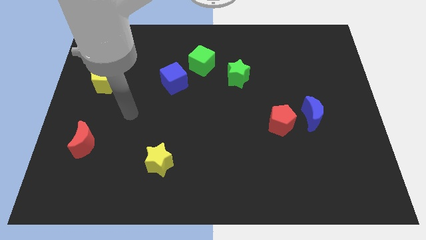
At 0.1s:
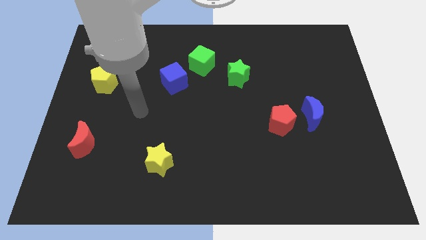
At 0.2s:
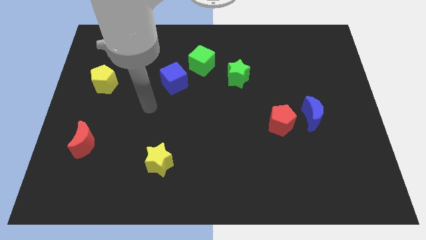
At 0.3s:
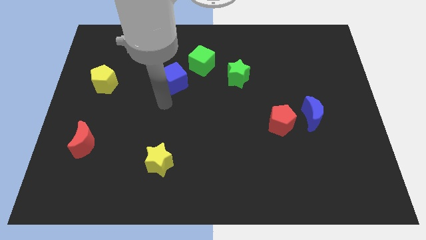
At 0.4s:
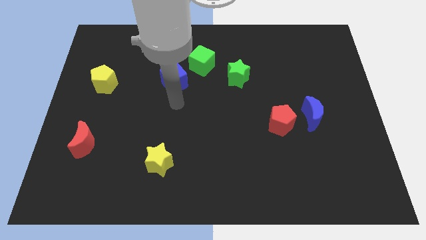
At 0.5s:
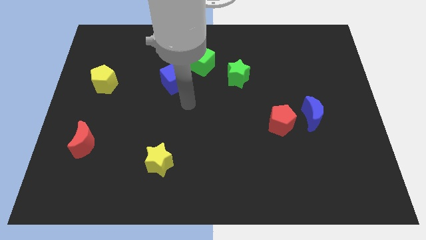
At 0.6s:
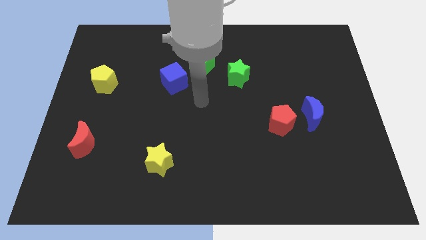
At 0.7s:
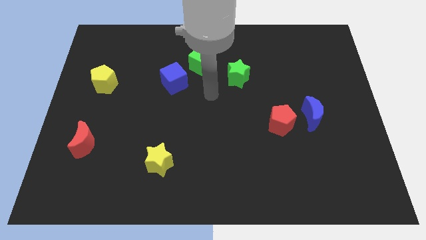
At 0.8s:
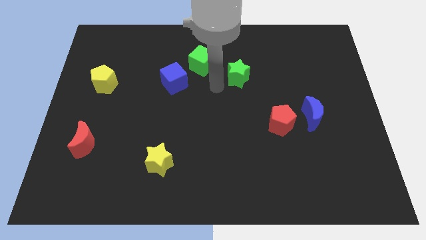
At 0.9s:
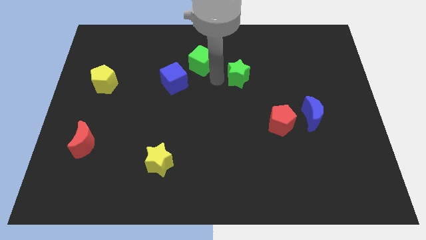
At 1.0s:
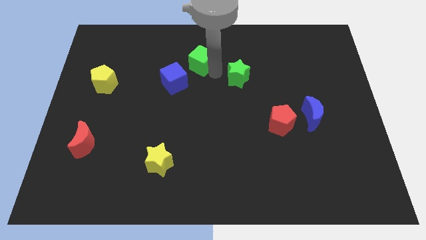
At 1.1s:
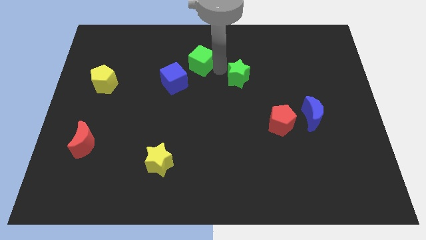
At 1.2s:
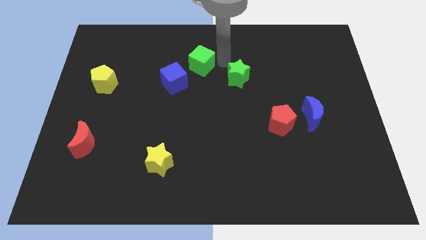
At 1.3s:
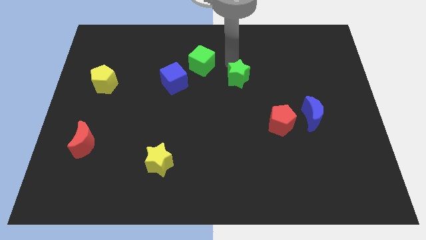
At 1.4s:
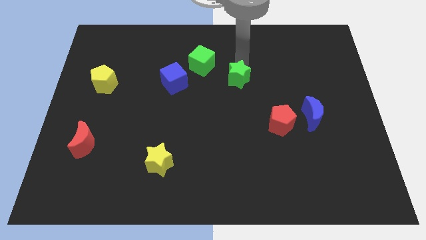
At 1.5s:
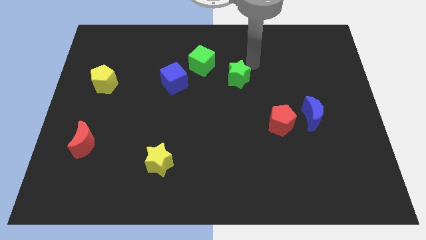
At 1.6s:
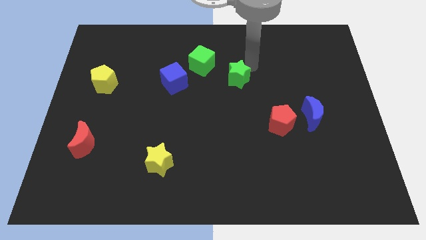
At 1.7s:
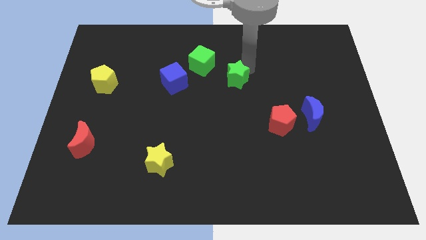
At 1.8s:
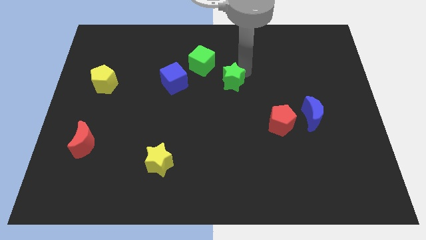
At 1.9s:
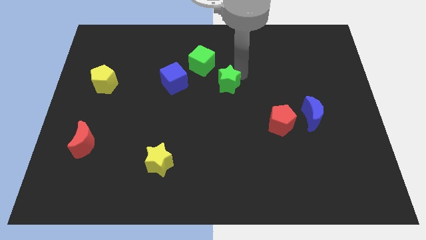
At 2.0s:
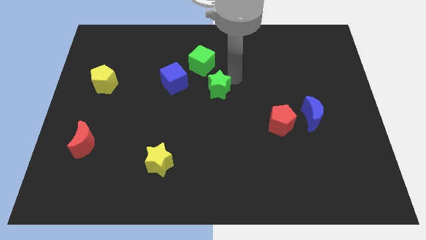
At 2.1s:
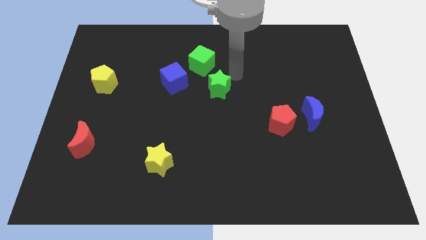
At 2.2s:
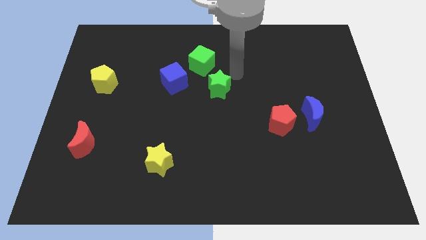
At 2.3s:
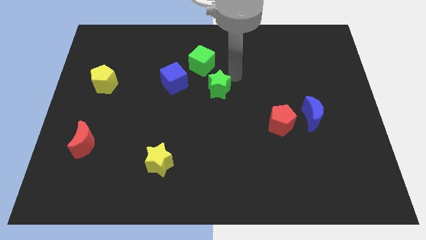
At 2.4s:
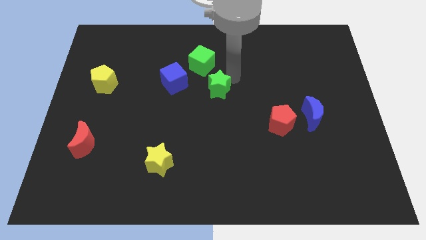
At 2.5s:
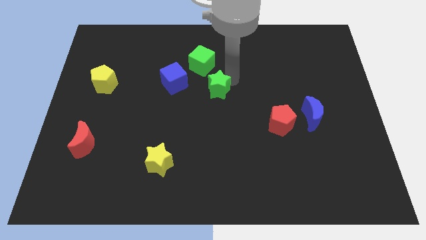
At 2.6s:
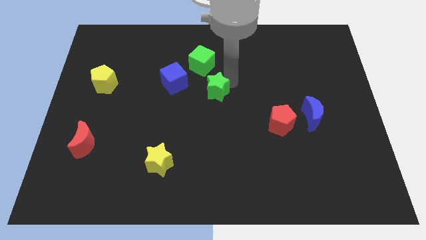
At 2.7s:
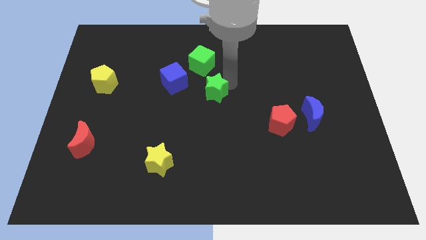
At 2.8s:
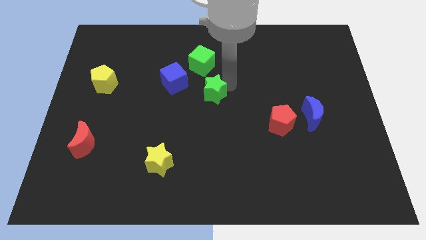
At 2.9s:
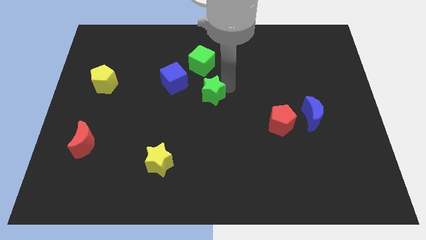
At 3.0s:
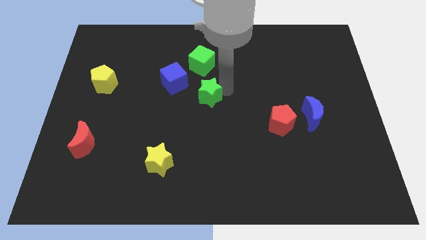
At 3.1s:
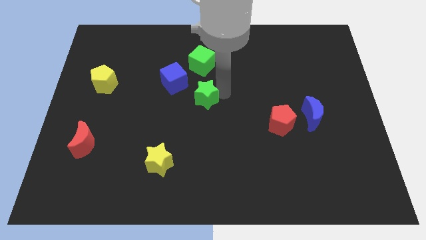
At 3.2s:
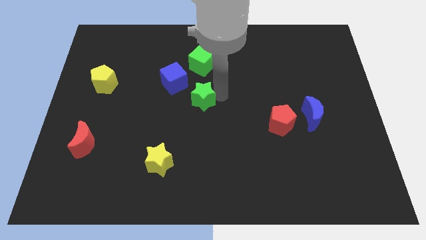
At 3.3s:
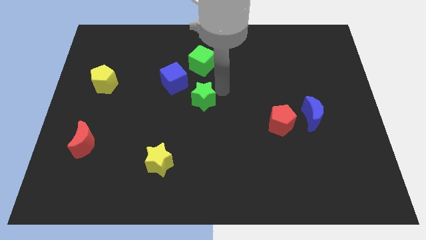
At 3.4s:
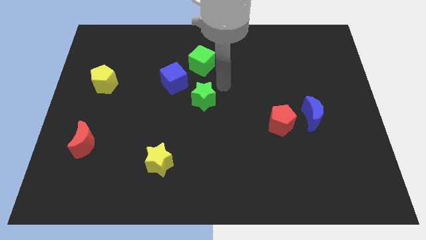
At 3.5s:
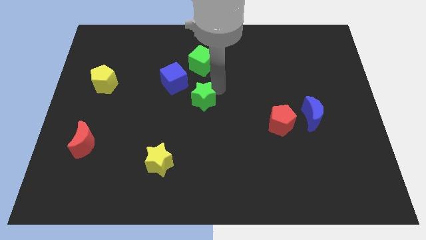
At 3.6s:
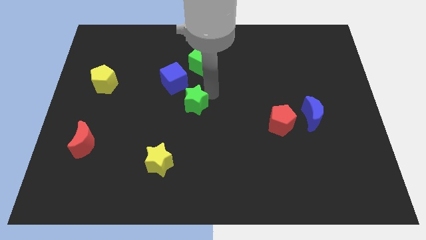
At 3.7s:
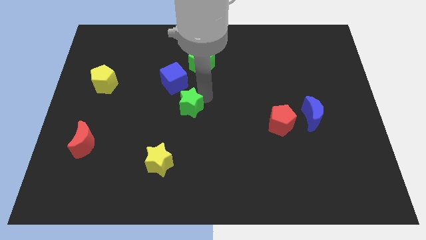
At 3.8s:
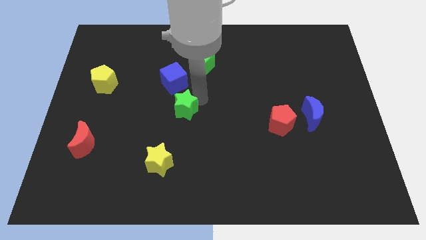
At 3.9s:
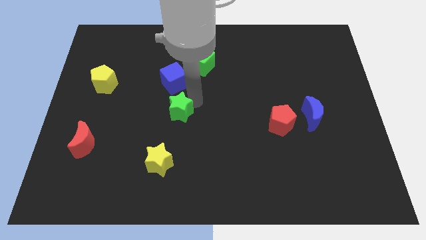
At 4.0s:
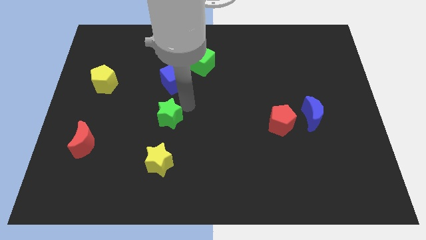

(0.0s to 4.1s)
push the green star down and then left

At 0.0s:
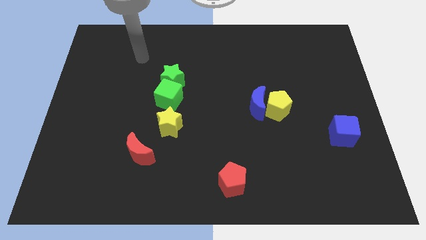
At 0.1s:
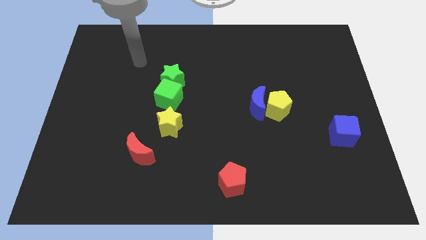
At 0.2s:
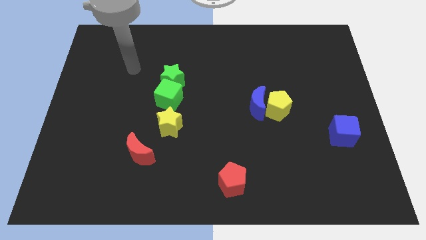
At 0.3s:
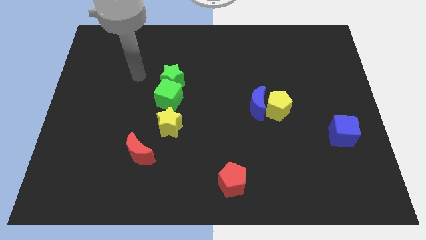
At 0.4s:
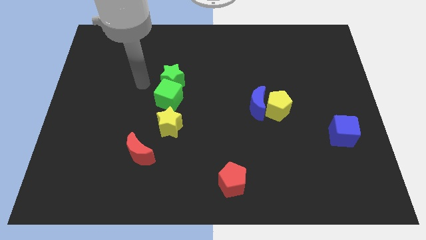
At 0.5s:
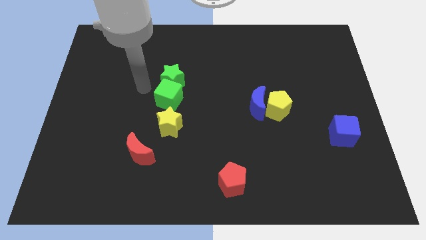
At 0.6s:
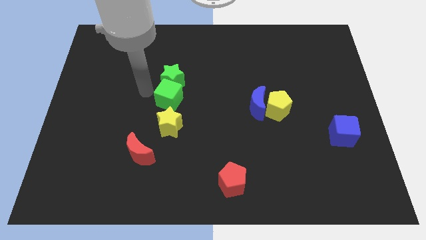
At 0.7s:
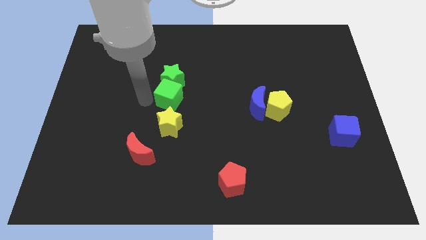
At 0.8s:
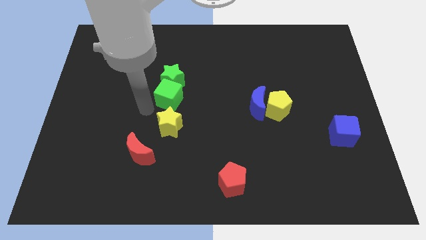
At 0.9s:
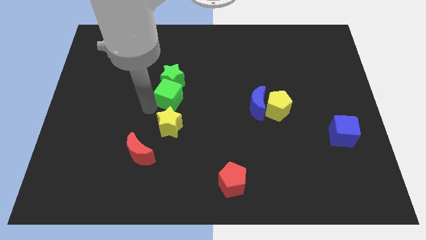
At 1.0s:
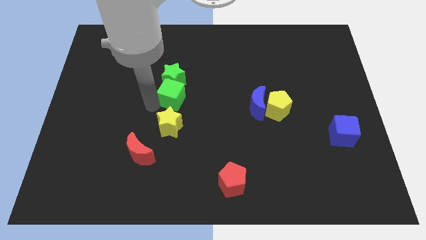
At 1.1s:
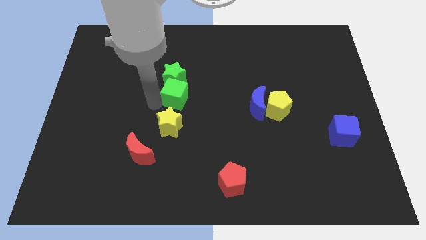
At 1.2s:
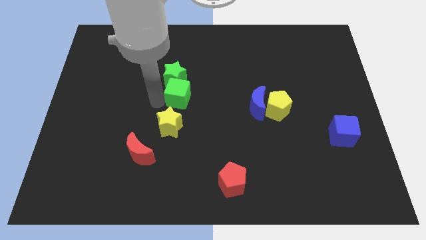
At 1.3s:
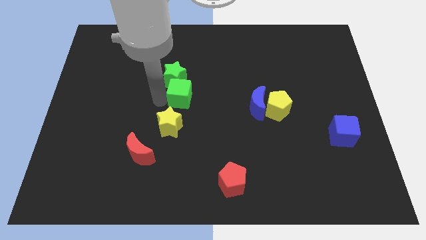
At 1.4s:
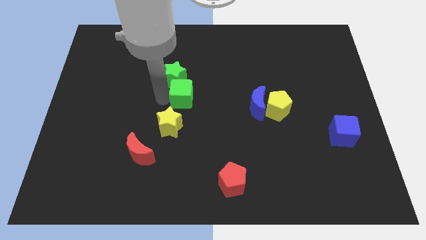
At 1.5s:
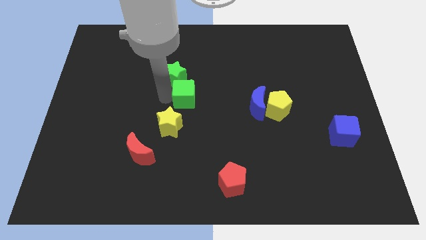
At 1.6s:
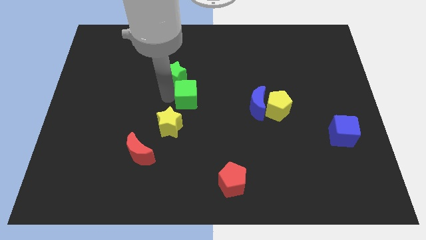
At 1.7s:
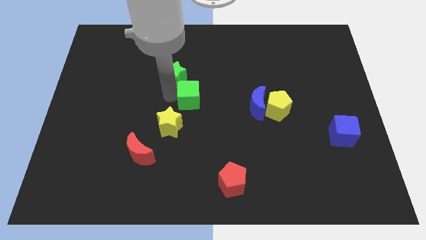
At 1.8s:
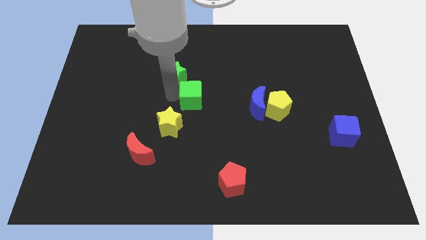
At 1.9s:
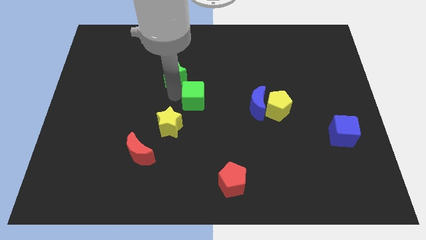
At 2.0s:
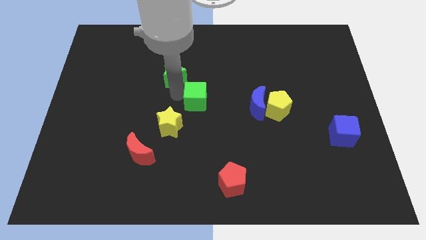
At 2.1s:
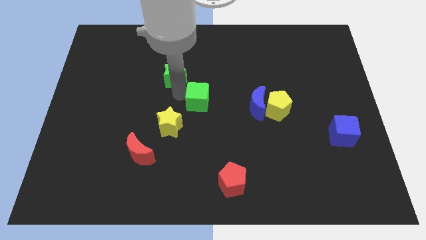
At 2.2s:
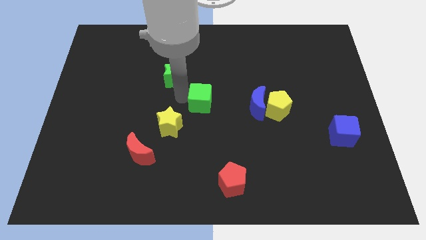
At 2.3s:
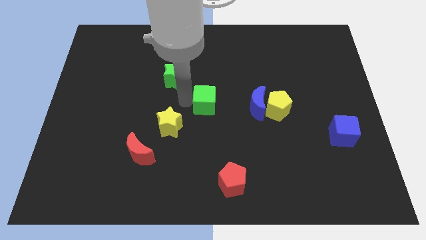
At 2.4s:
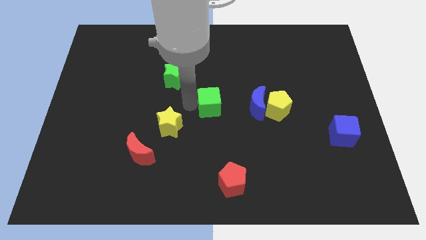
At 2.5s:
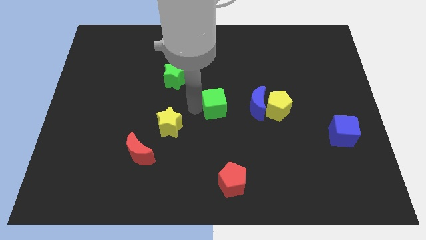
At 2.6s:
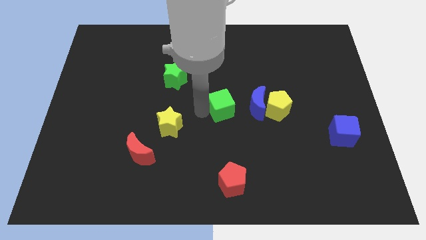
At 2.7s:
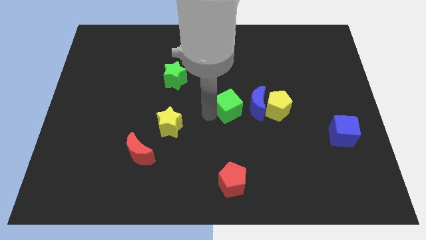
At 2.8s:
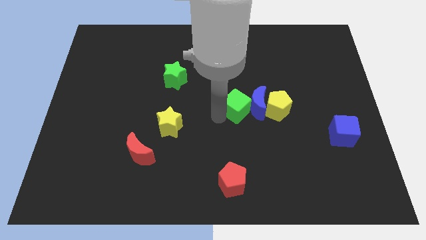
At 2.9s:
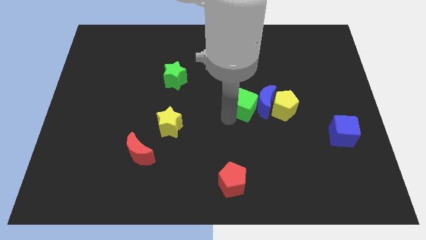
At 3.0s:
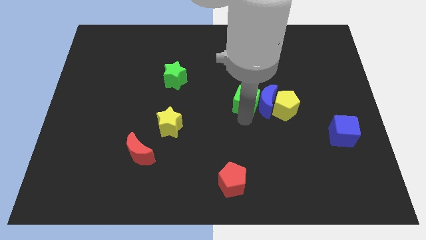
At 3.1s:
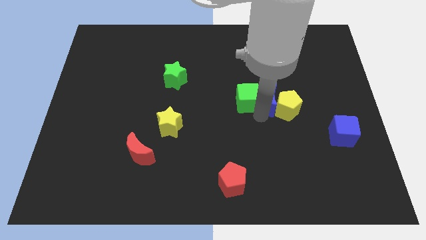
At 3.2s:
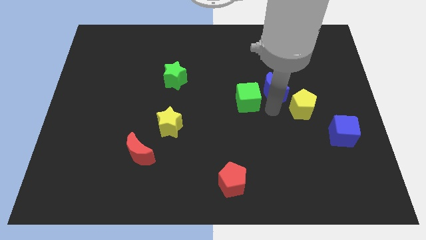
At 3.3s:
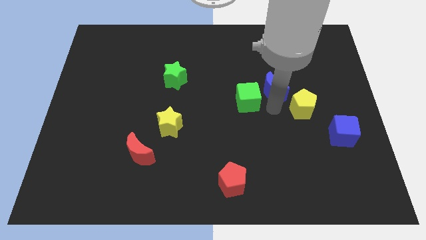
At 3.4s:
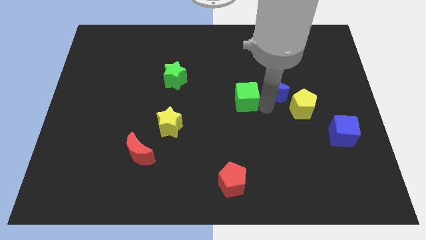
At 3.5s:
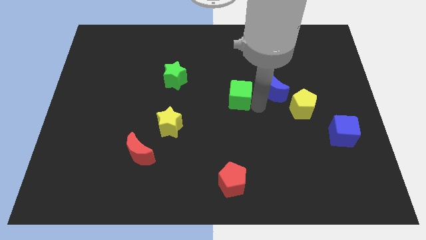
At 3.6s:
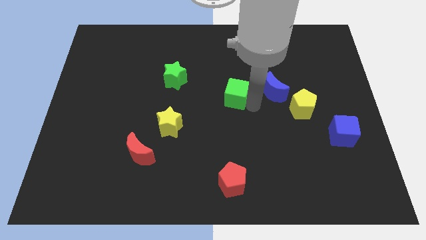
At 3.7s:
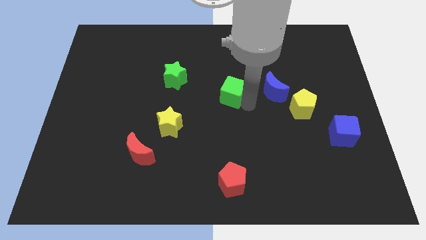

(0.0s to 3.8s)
move the green cube slightly diagonally up and to the right

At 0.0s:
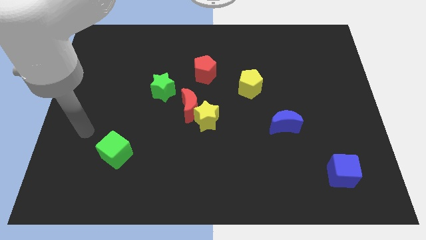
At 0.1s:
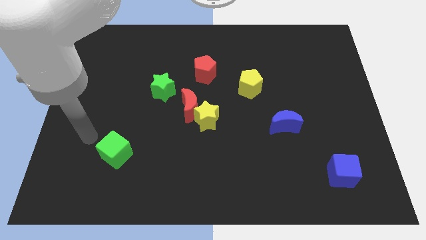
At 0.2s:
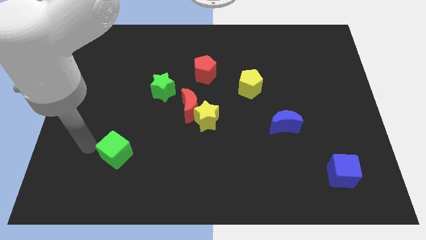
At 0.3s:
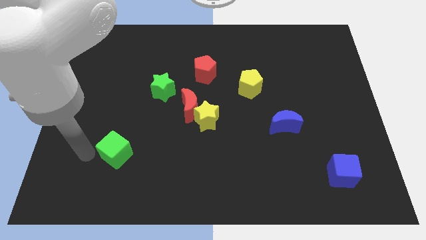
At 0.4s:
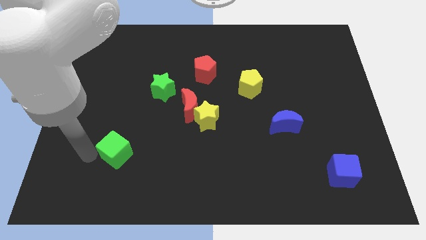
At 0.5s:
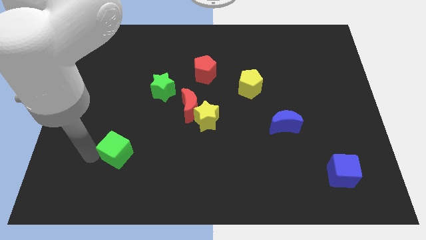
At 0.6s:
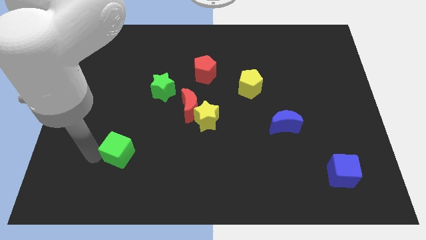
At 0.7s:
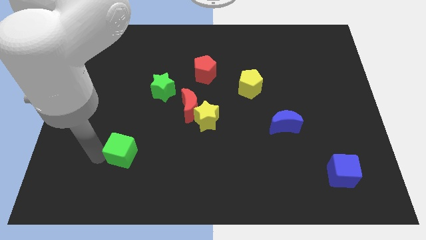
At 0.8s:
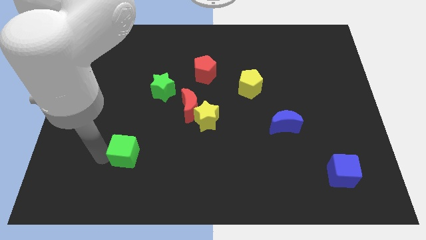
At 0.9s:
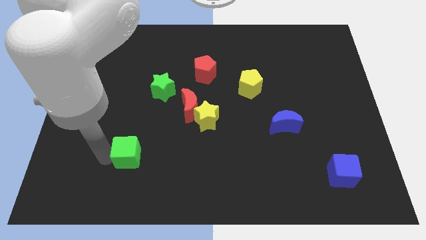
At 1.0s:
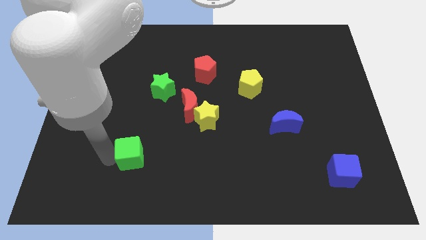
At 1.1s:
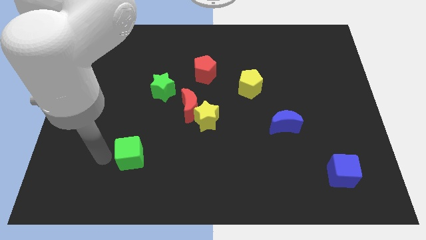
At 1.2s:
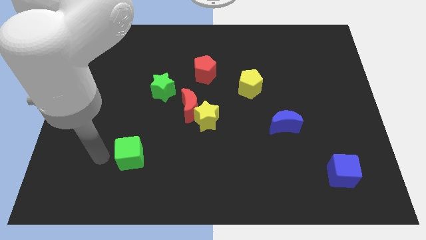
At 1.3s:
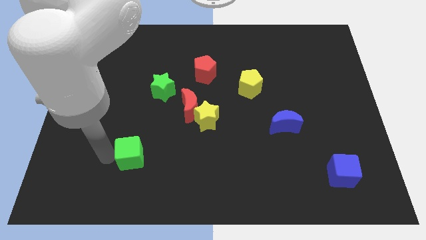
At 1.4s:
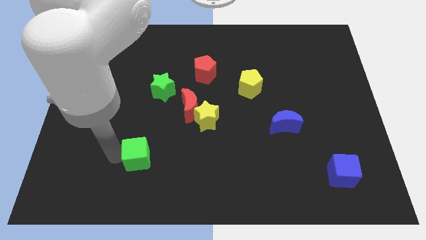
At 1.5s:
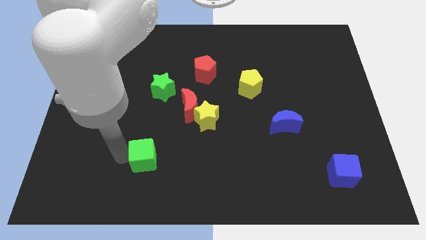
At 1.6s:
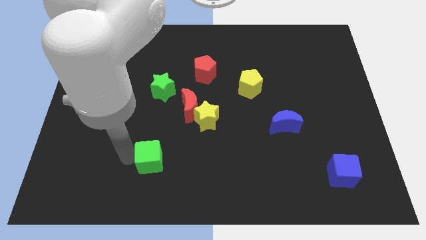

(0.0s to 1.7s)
move the green cube right a bit
